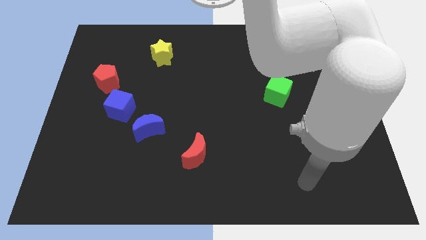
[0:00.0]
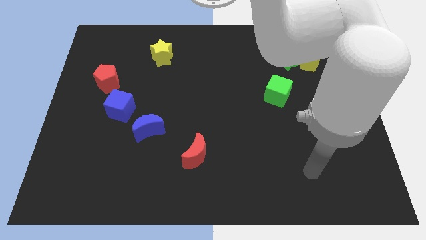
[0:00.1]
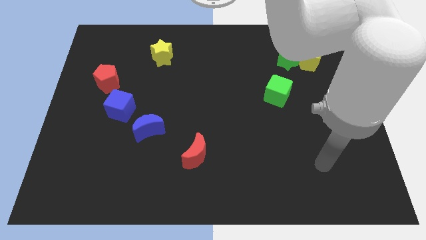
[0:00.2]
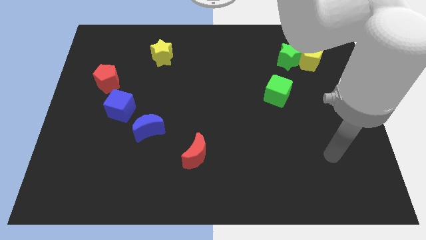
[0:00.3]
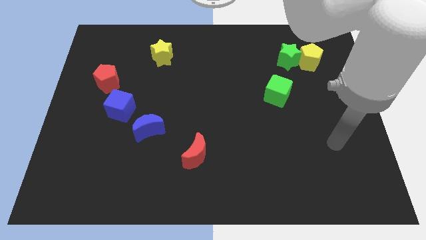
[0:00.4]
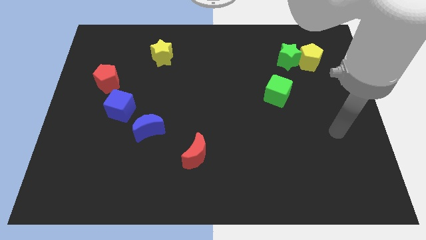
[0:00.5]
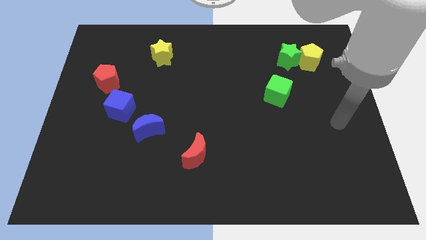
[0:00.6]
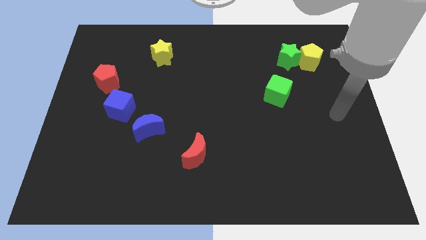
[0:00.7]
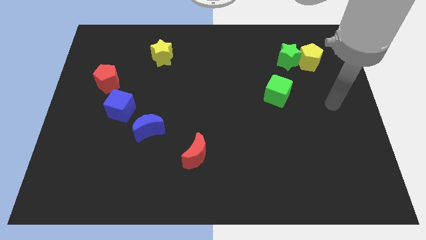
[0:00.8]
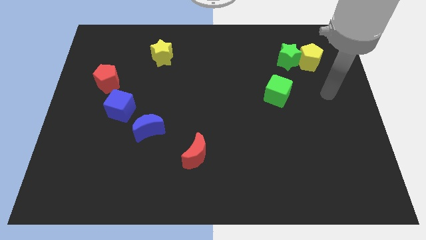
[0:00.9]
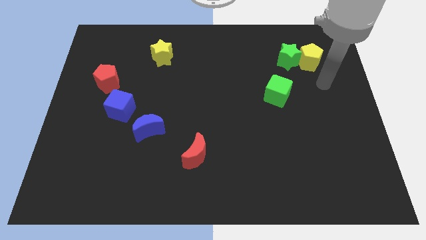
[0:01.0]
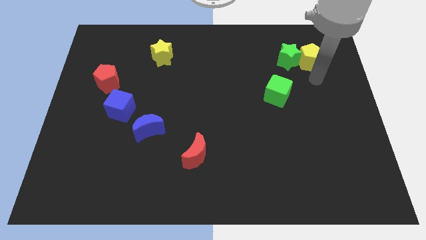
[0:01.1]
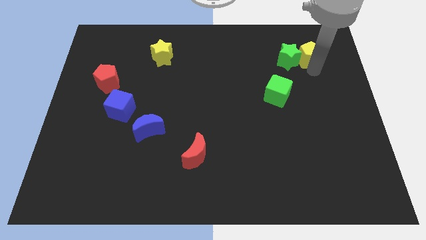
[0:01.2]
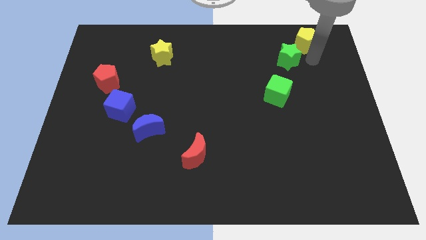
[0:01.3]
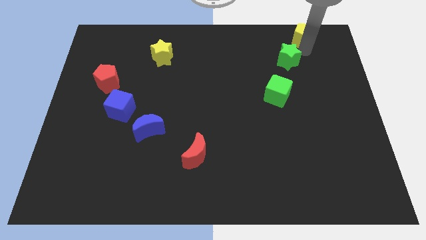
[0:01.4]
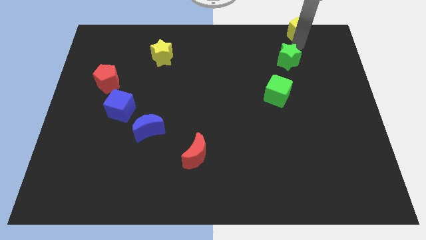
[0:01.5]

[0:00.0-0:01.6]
pull the green star apart from the yellow pentagon

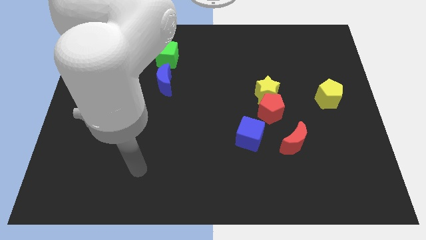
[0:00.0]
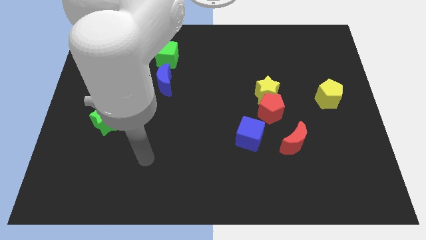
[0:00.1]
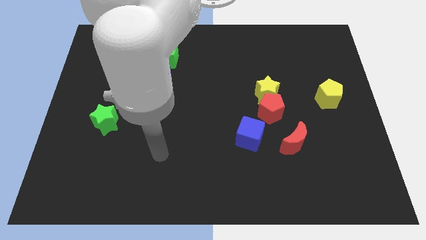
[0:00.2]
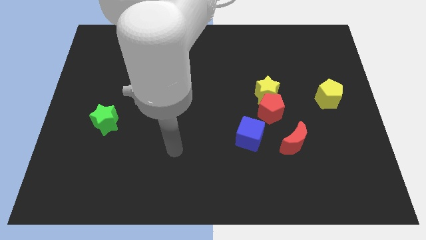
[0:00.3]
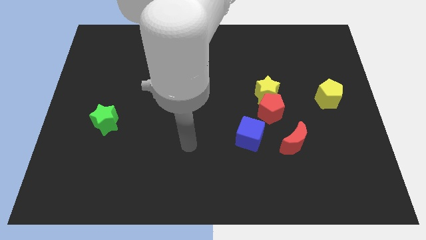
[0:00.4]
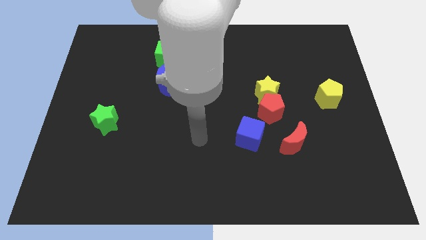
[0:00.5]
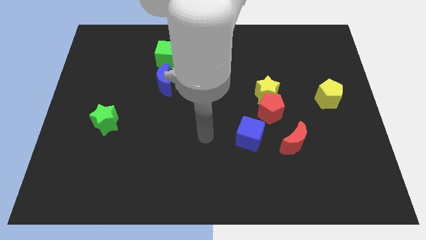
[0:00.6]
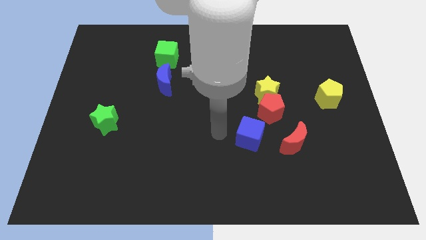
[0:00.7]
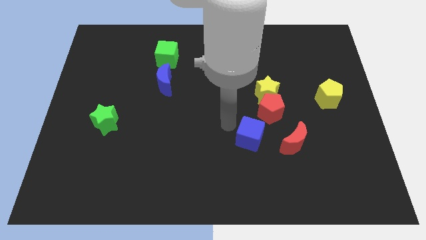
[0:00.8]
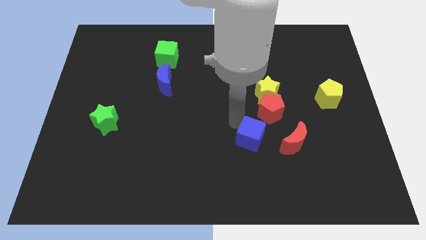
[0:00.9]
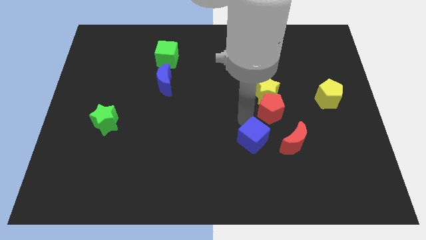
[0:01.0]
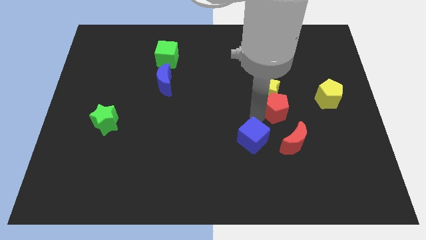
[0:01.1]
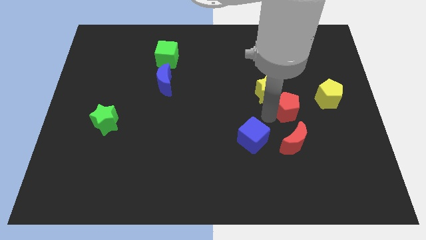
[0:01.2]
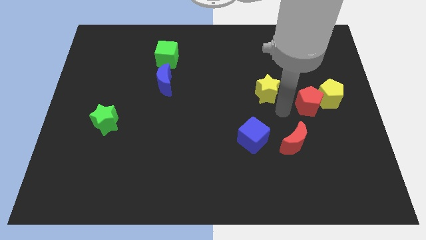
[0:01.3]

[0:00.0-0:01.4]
move the yellow star away from the red pentagon

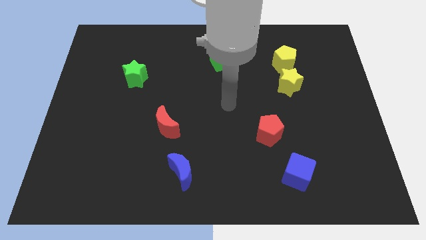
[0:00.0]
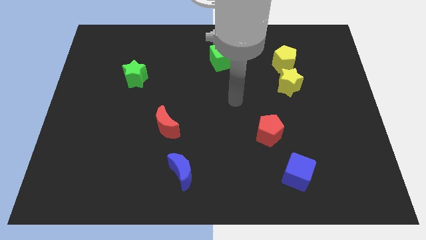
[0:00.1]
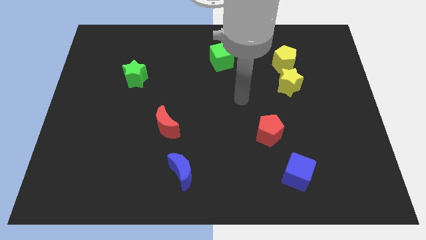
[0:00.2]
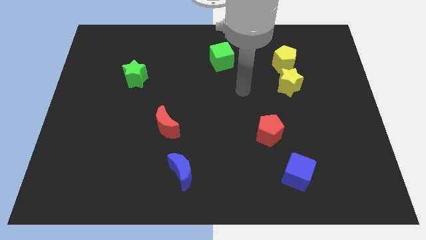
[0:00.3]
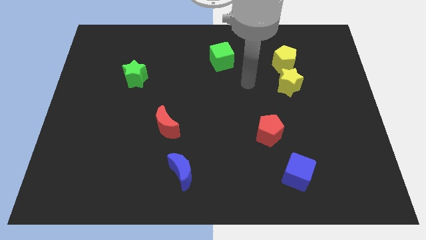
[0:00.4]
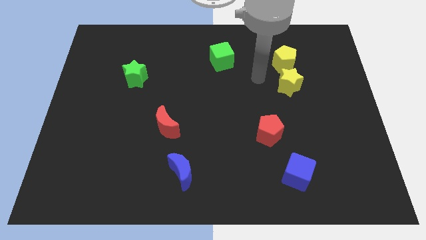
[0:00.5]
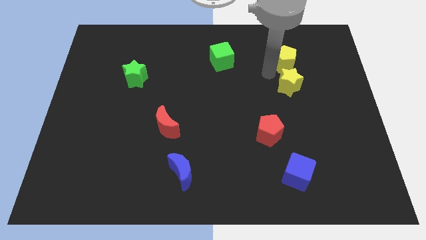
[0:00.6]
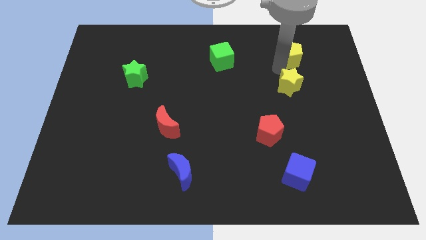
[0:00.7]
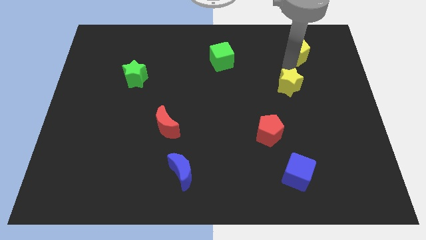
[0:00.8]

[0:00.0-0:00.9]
pull the yellow star apart from the yellow pentagon

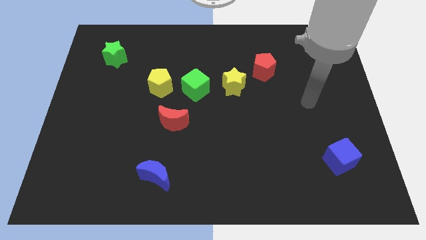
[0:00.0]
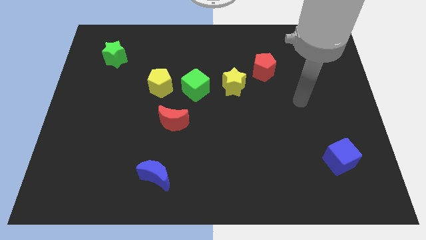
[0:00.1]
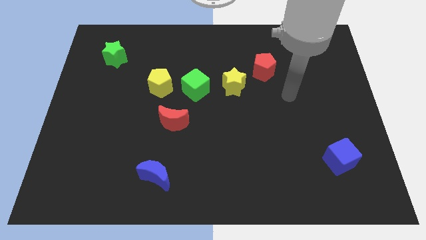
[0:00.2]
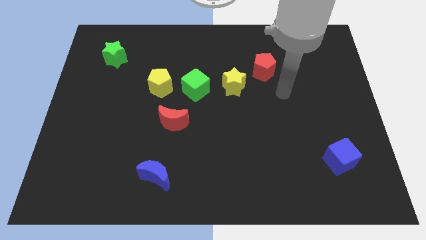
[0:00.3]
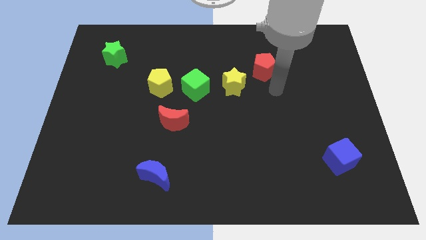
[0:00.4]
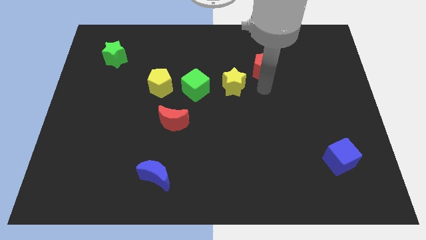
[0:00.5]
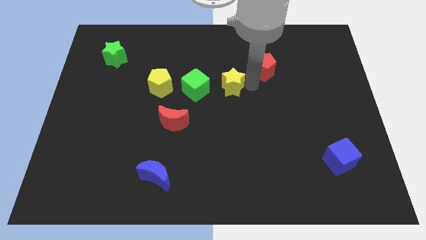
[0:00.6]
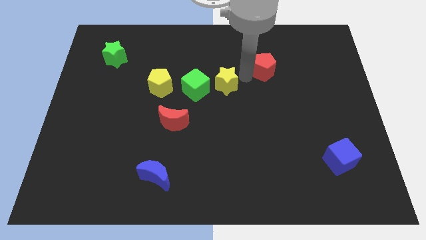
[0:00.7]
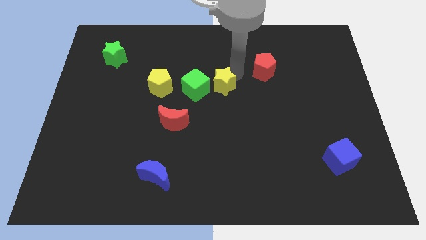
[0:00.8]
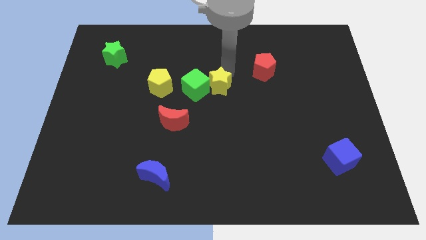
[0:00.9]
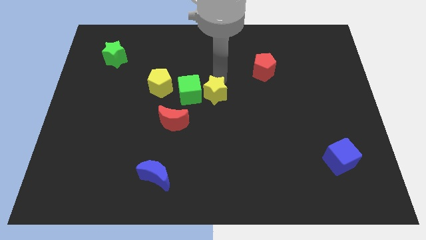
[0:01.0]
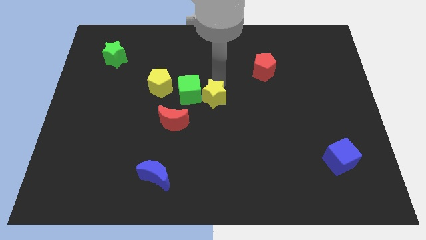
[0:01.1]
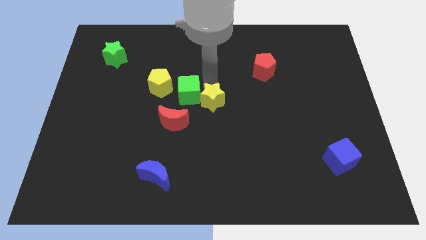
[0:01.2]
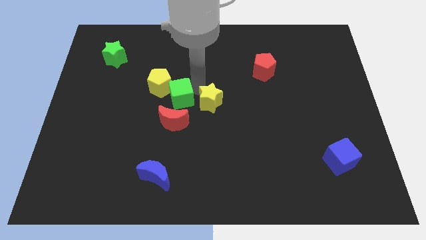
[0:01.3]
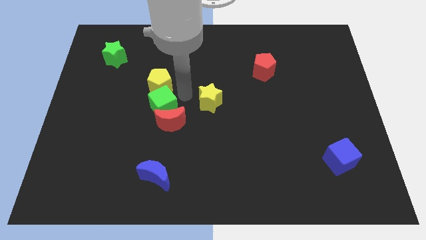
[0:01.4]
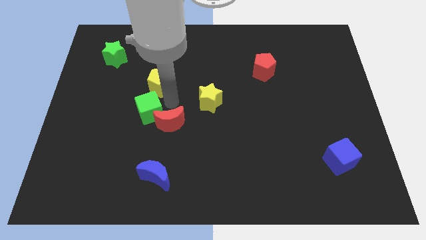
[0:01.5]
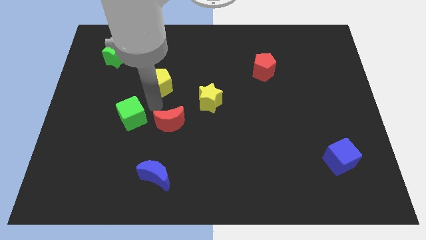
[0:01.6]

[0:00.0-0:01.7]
separate the yellow pentagon from the green cube

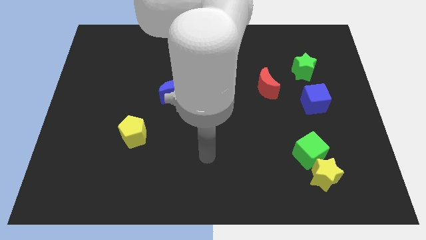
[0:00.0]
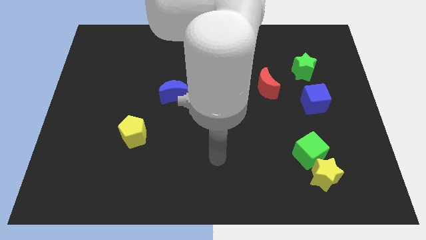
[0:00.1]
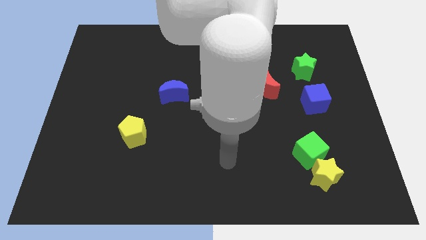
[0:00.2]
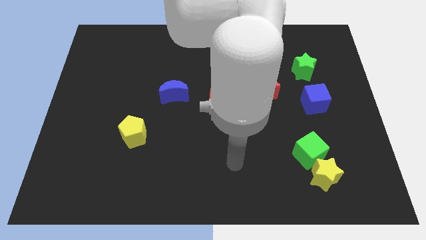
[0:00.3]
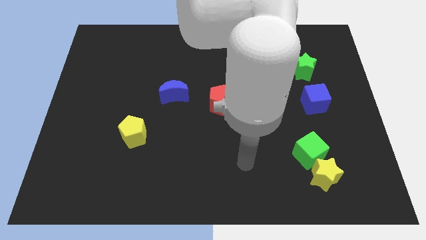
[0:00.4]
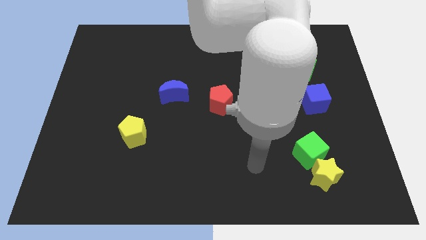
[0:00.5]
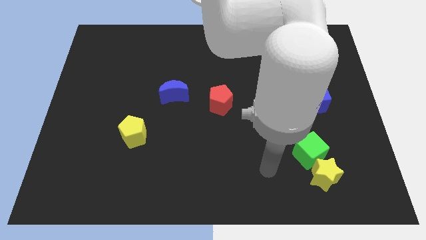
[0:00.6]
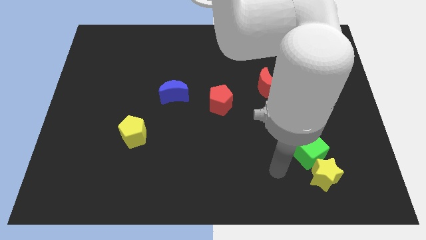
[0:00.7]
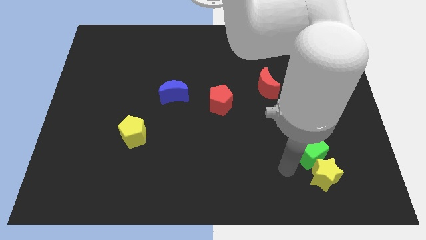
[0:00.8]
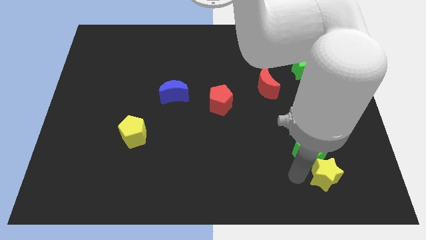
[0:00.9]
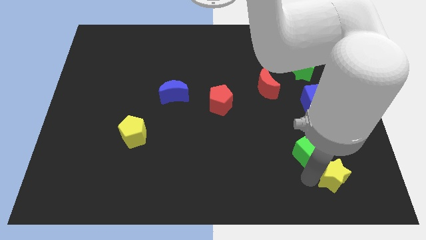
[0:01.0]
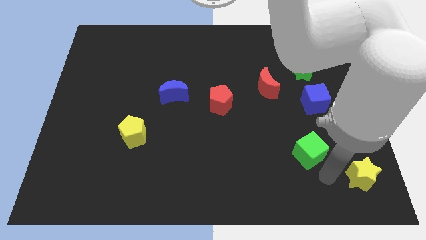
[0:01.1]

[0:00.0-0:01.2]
separate the green cube from the yellow star

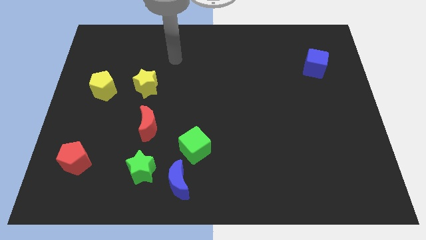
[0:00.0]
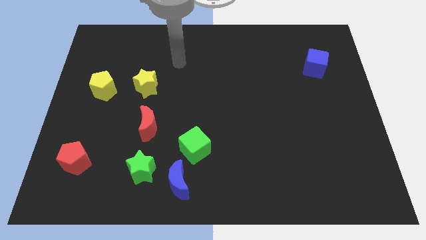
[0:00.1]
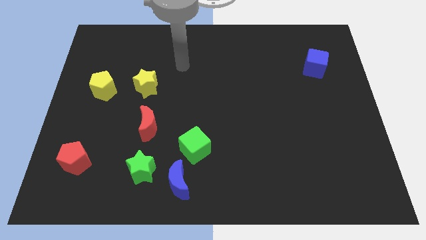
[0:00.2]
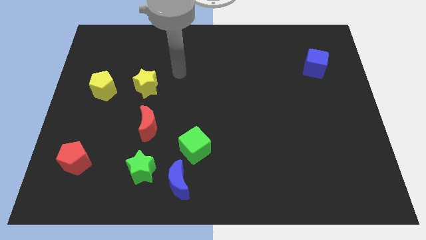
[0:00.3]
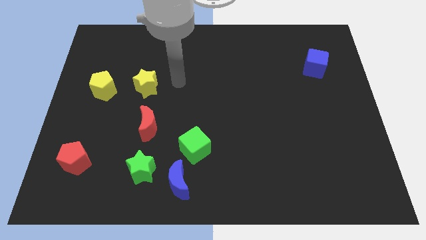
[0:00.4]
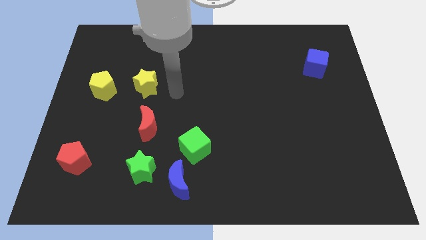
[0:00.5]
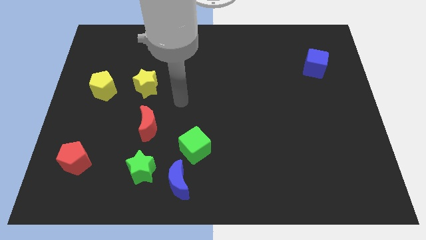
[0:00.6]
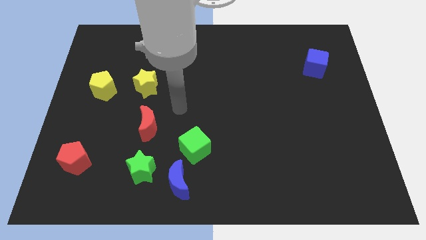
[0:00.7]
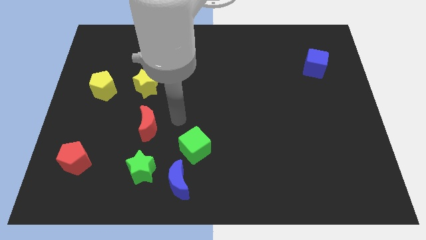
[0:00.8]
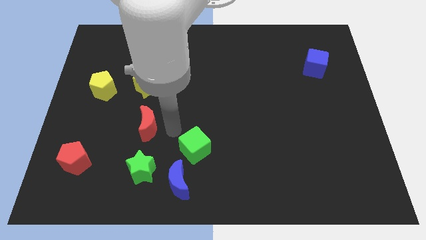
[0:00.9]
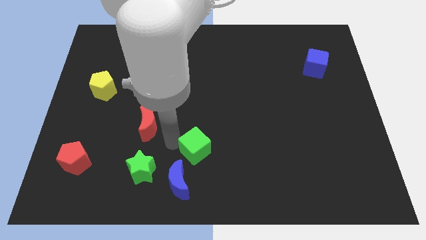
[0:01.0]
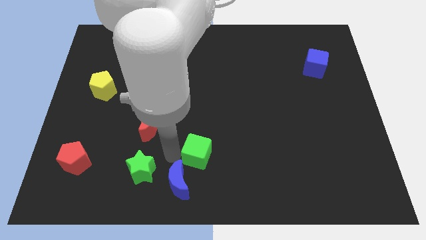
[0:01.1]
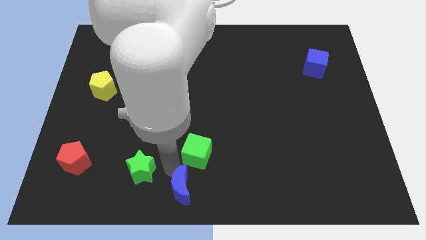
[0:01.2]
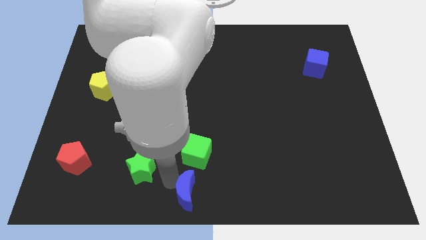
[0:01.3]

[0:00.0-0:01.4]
move the green star away from the blue moon

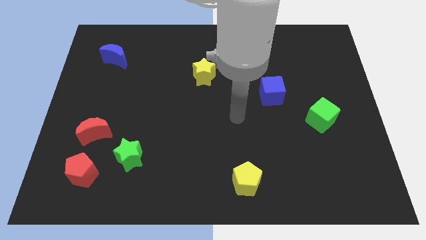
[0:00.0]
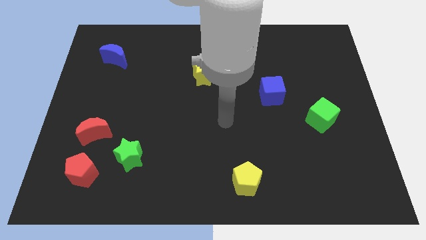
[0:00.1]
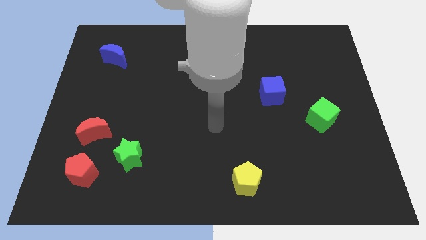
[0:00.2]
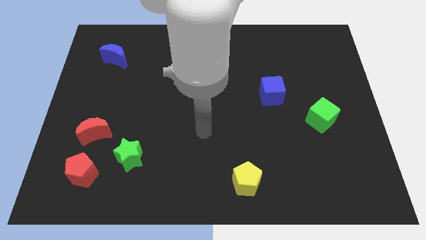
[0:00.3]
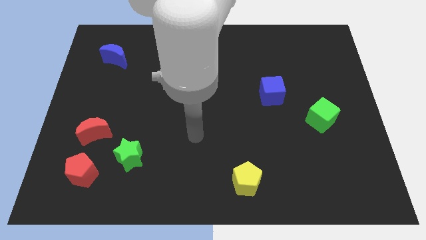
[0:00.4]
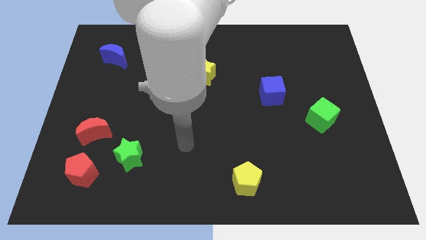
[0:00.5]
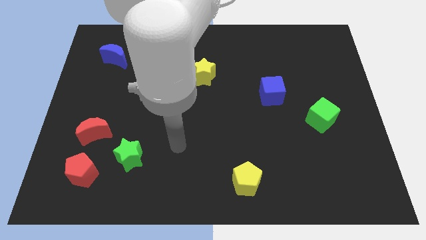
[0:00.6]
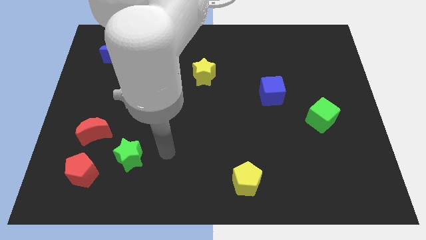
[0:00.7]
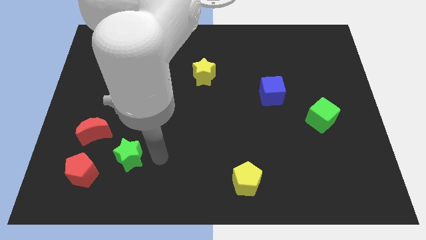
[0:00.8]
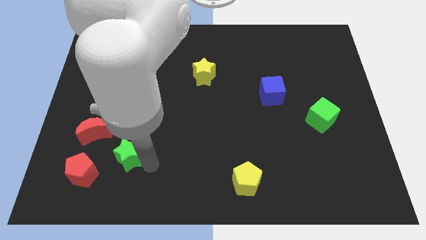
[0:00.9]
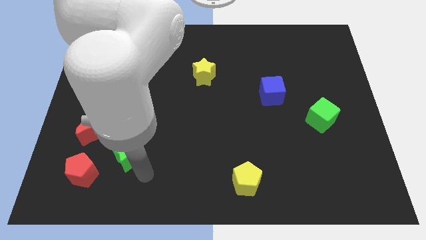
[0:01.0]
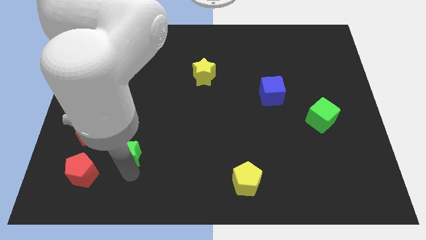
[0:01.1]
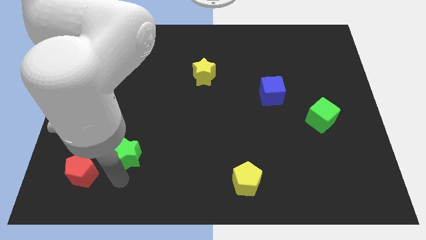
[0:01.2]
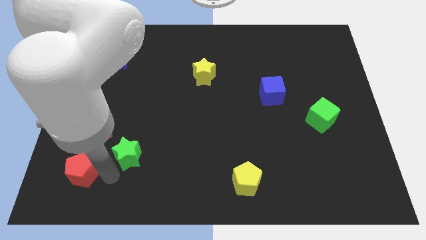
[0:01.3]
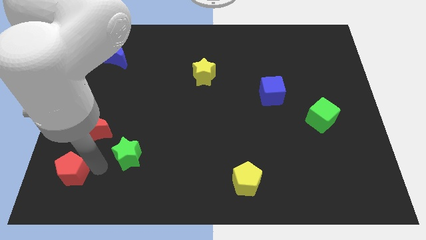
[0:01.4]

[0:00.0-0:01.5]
separate the green star from the red pentagon
